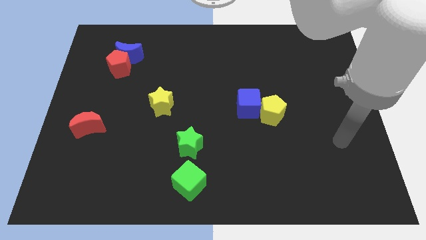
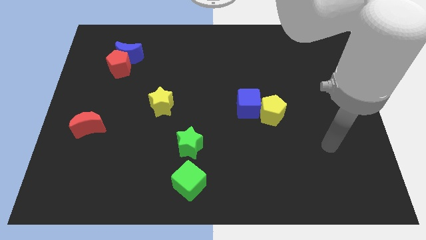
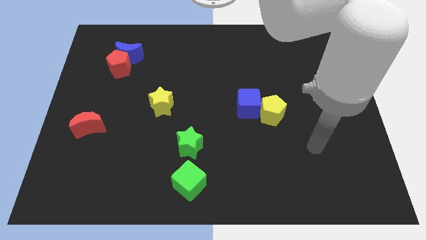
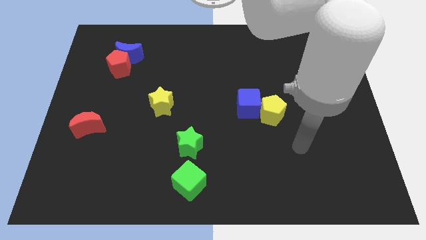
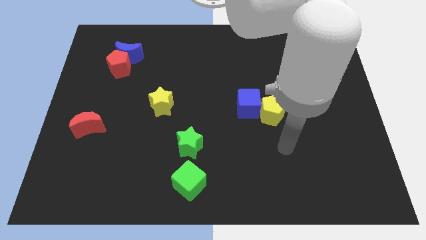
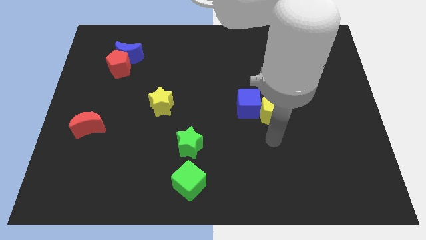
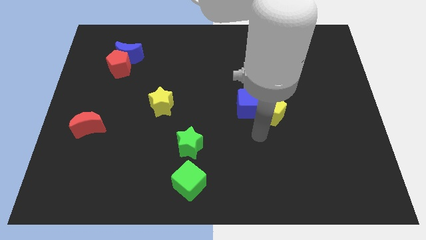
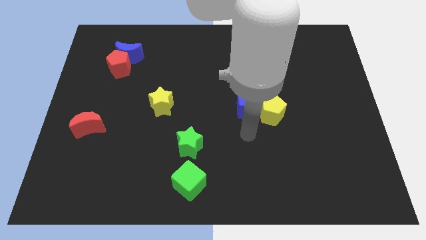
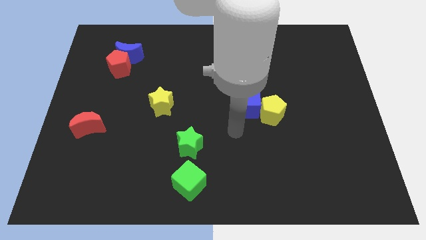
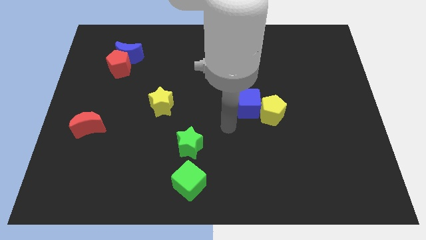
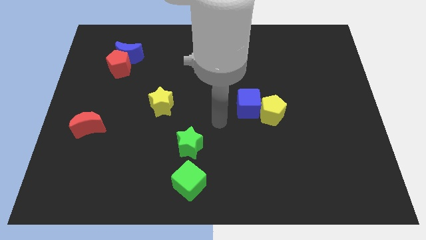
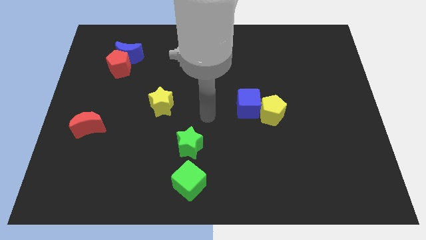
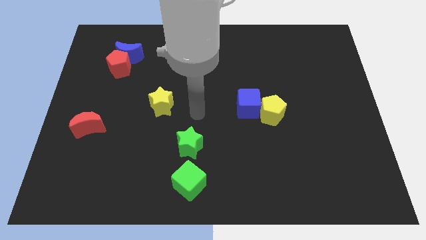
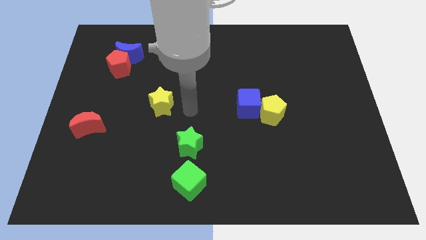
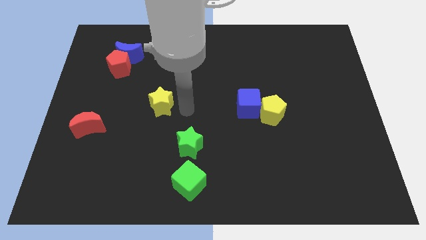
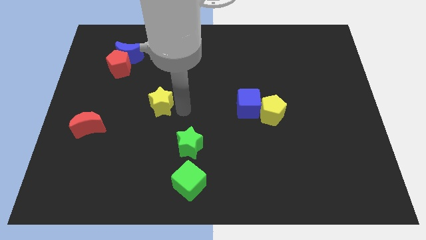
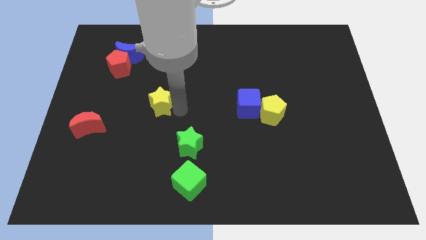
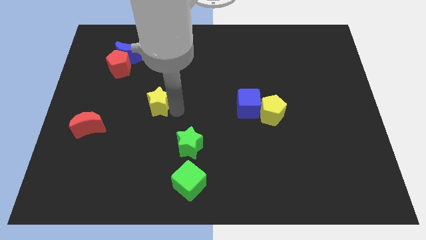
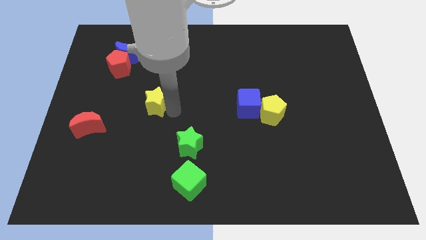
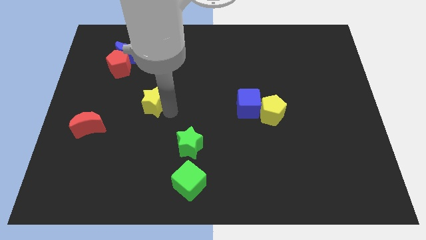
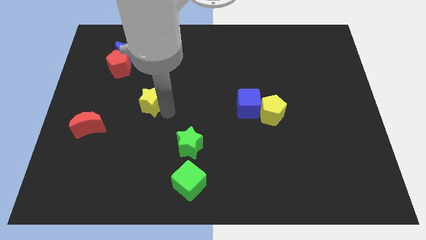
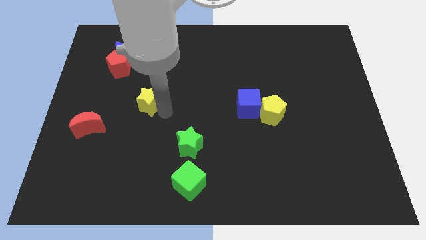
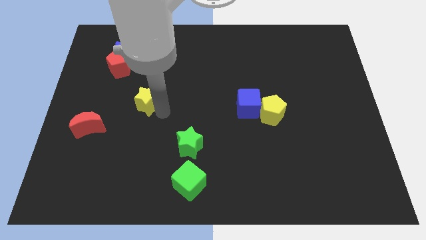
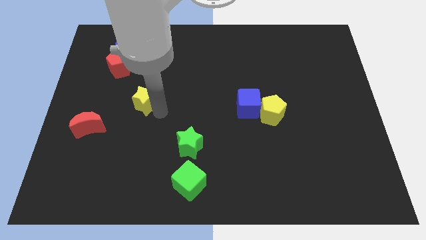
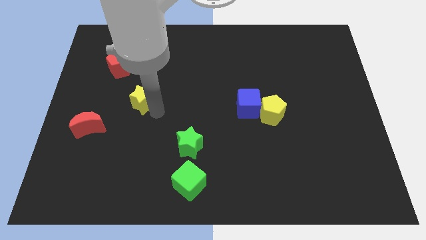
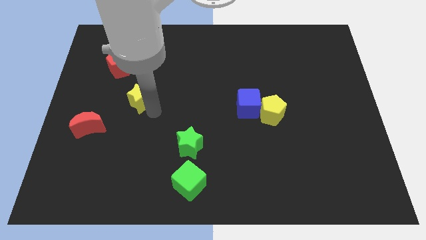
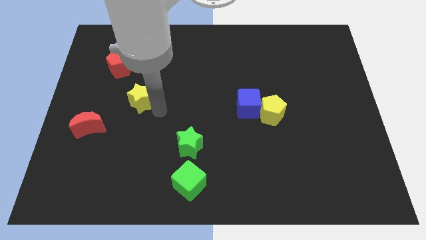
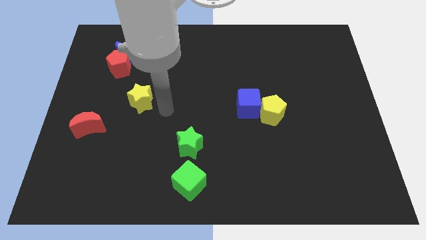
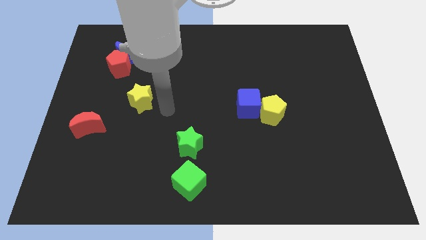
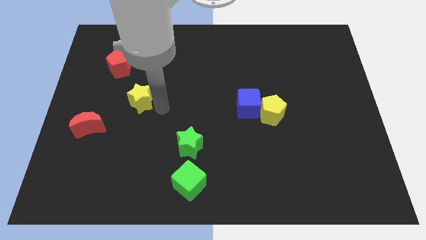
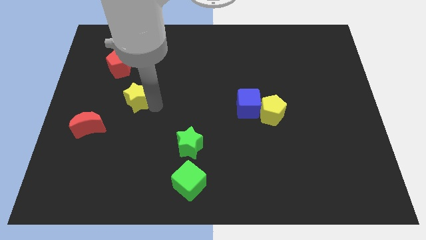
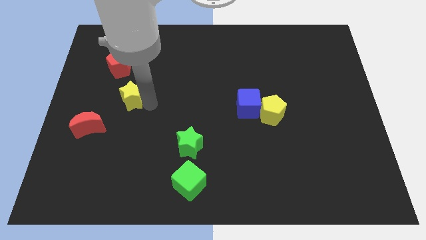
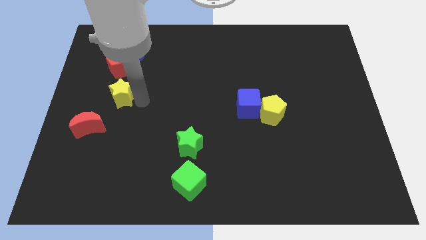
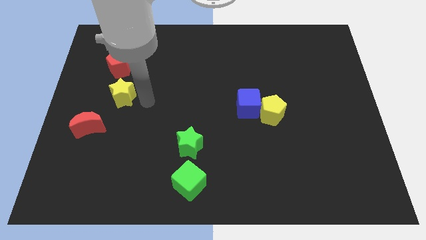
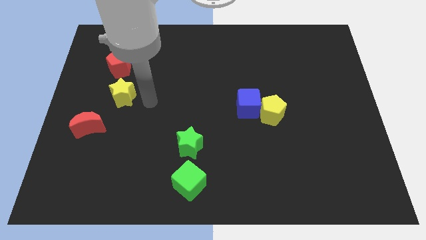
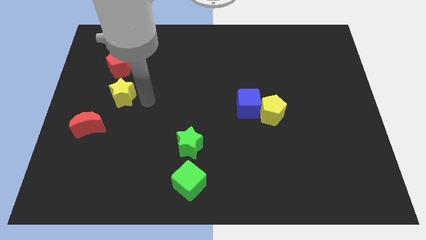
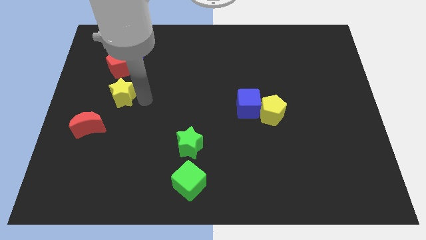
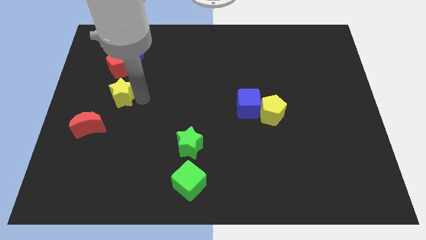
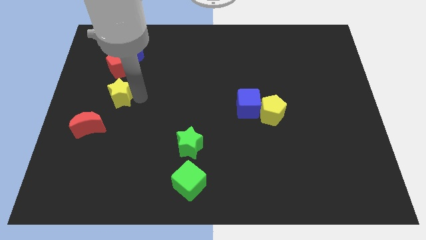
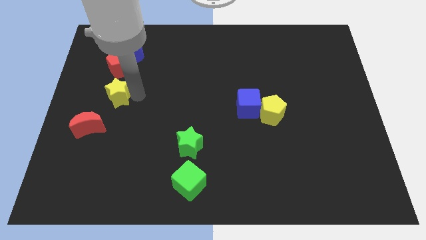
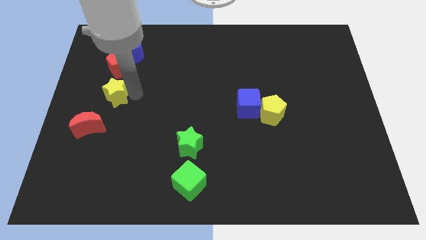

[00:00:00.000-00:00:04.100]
push the yellow star to the top of the red moon

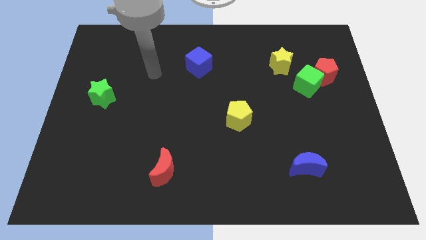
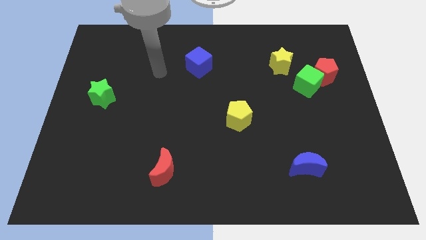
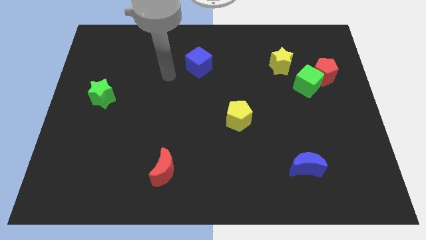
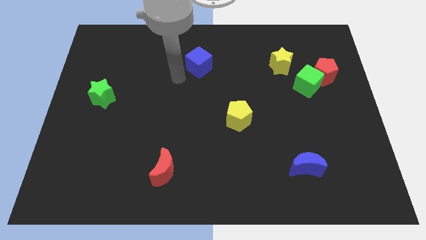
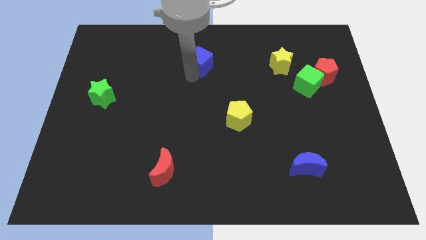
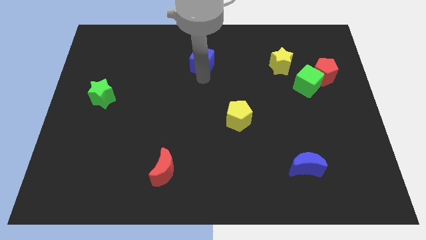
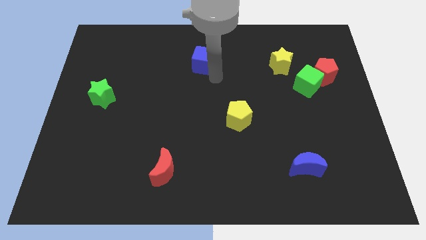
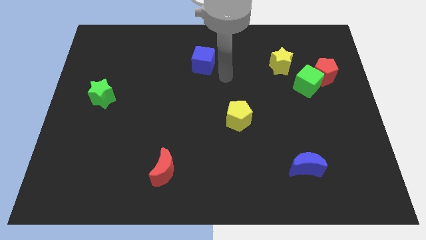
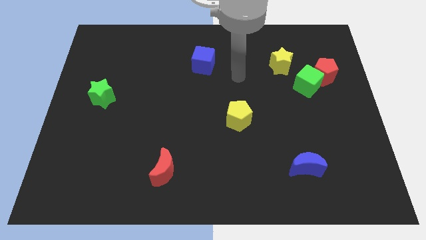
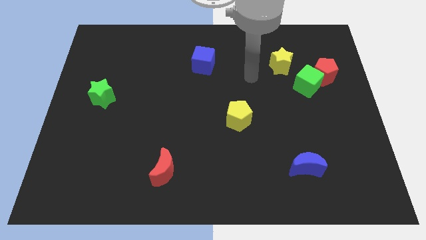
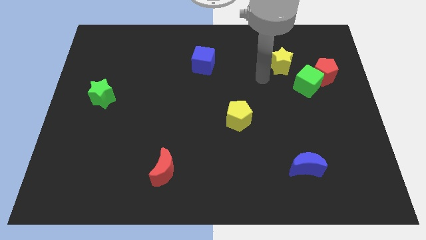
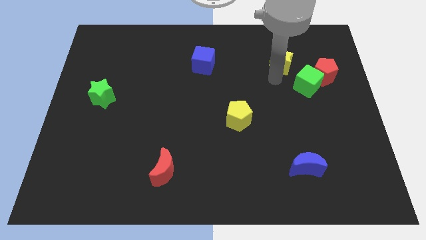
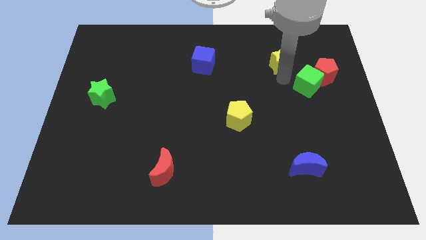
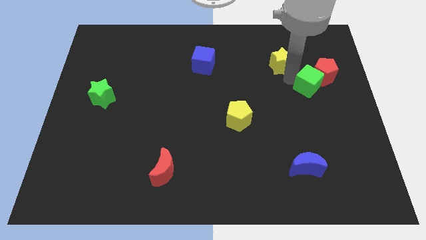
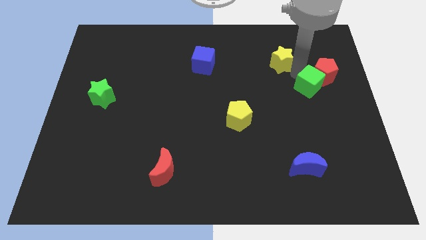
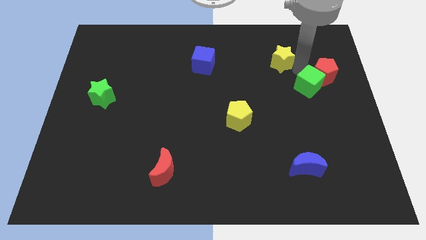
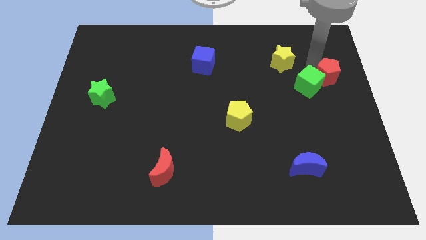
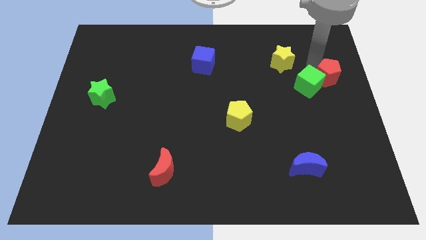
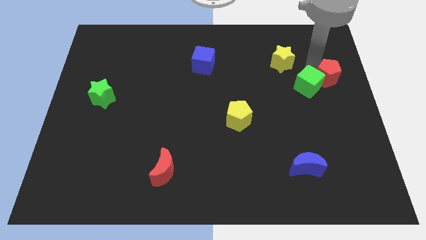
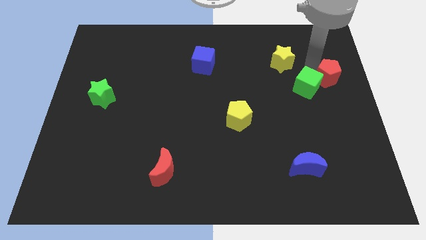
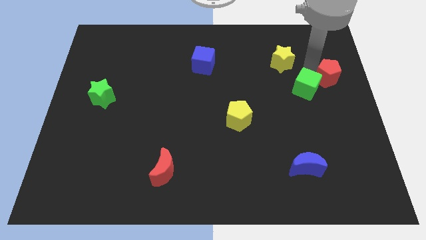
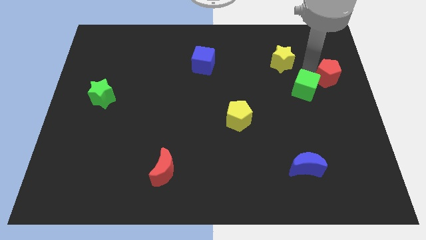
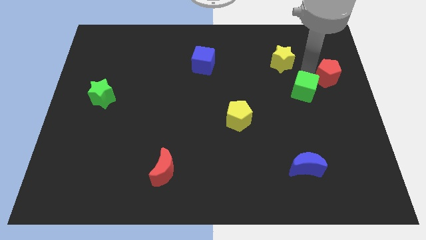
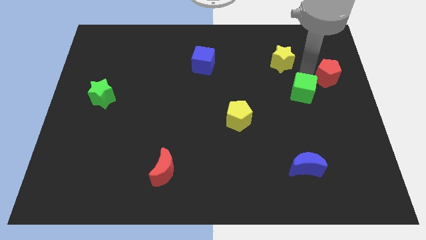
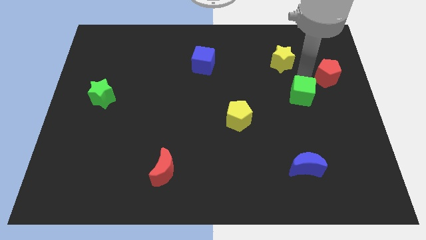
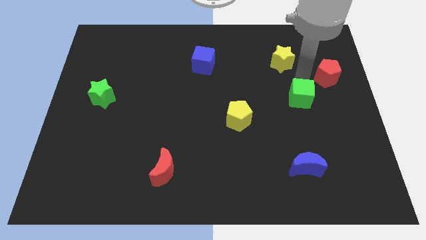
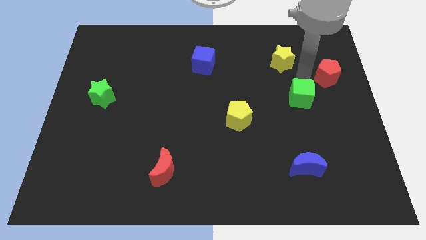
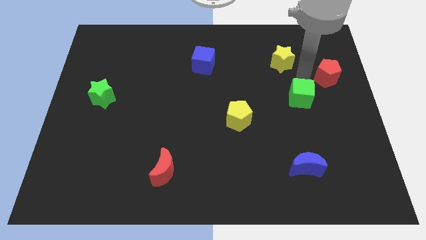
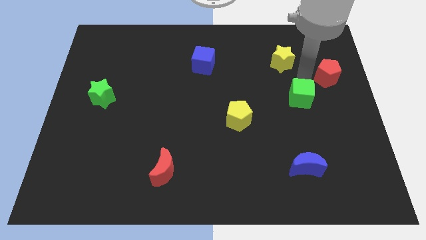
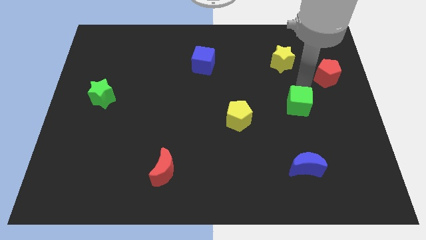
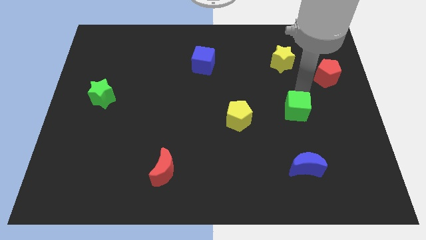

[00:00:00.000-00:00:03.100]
slide the green cube above the blue moon

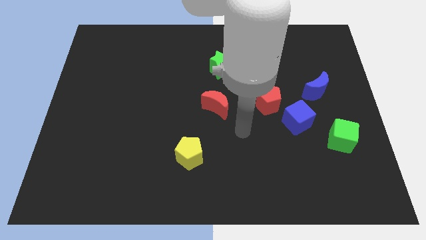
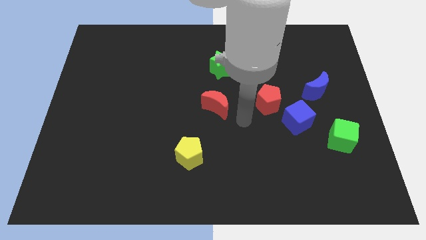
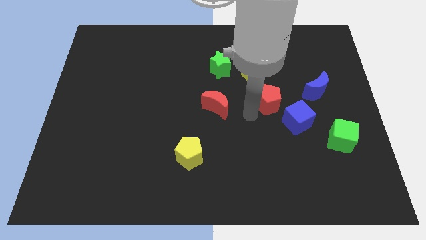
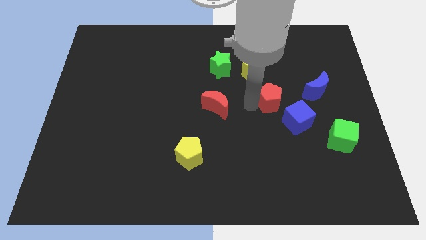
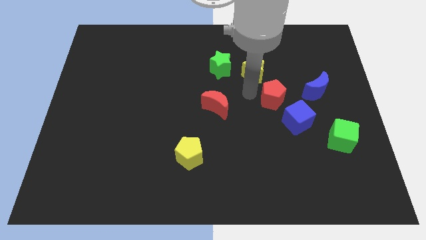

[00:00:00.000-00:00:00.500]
slide the blue cube to the bottom side of the red pentagon

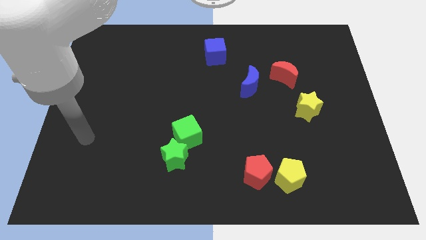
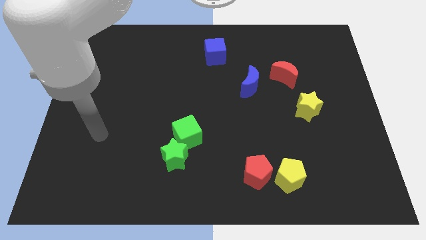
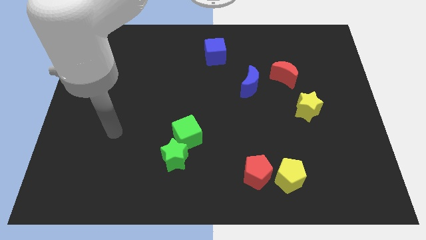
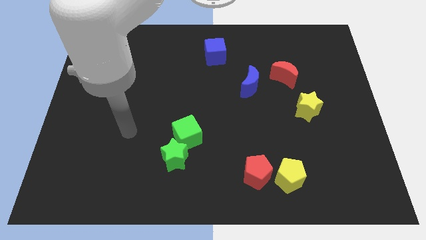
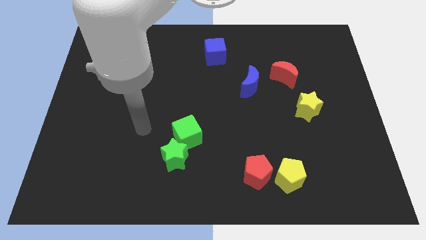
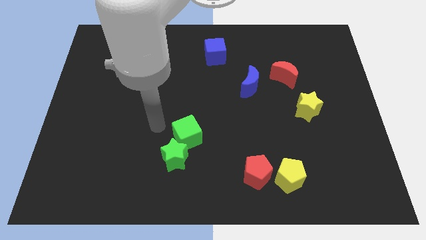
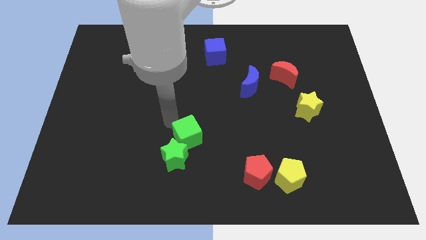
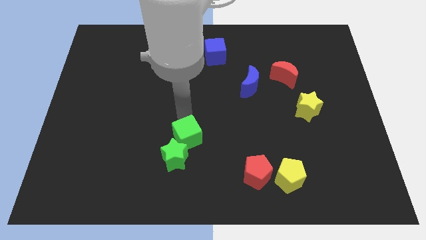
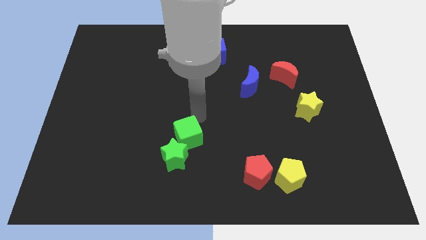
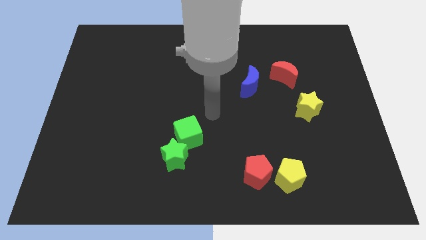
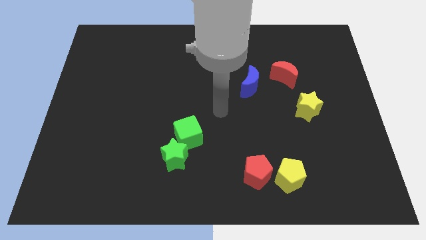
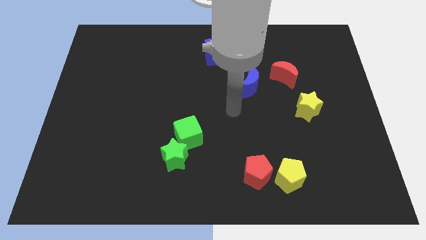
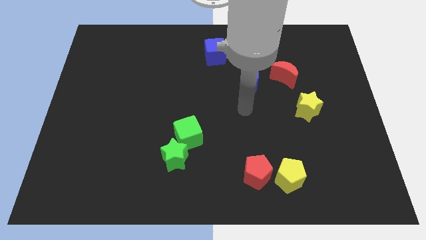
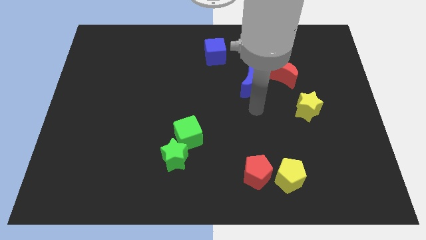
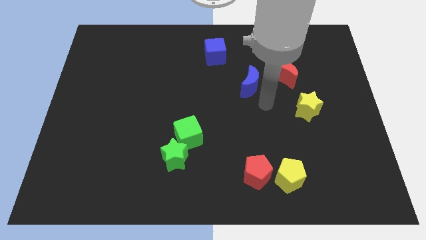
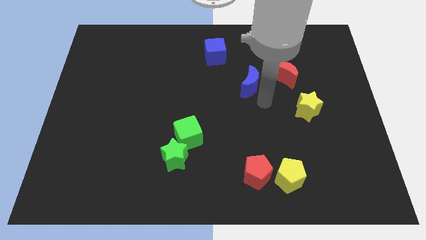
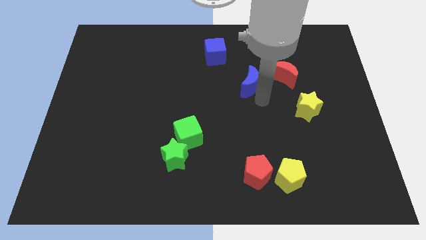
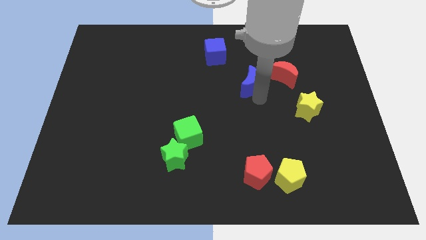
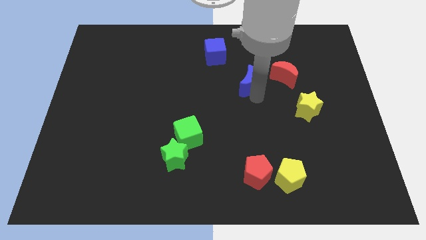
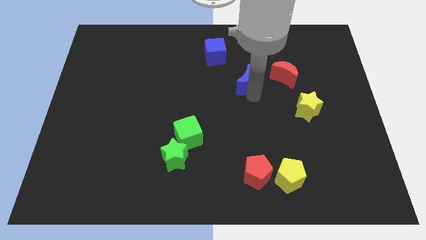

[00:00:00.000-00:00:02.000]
move the blue moon diagonally down and to the right of the blue cube
